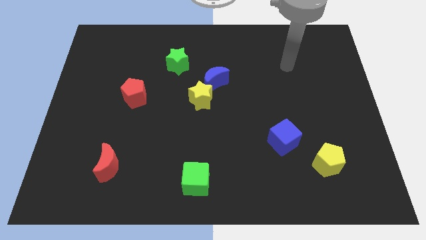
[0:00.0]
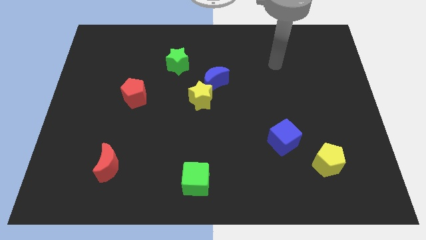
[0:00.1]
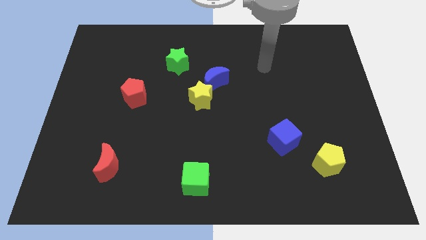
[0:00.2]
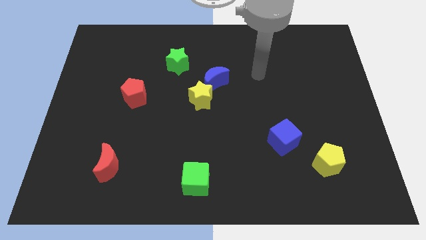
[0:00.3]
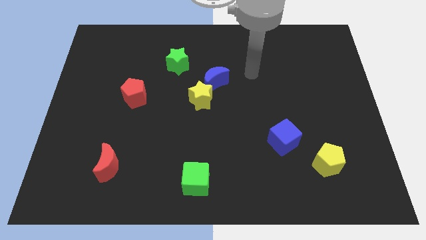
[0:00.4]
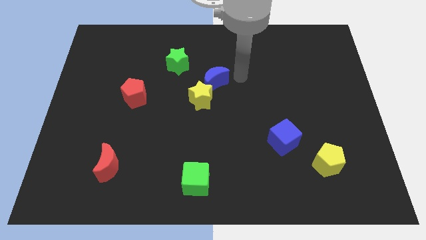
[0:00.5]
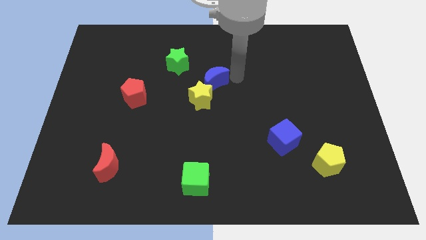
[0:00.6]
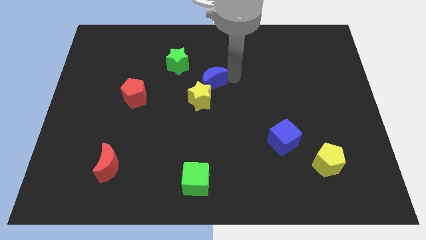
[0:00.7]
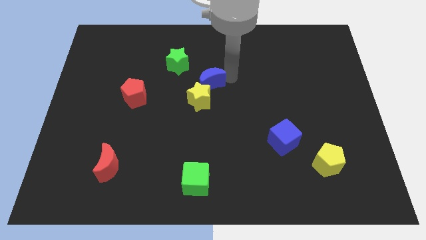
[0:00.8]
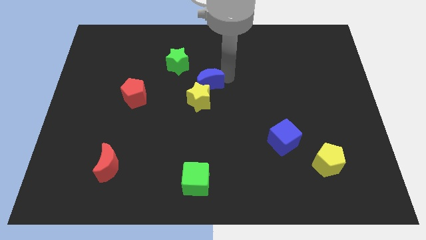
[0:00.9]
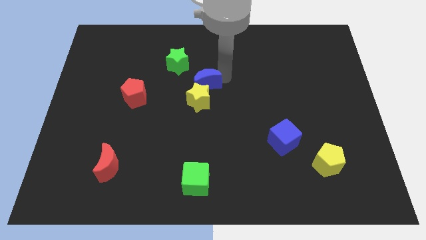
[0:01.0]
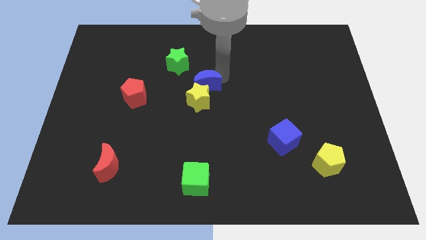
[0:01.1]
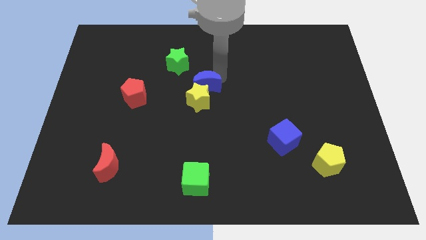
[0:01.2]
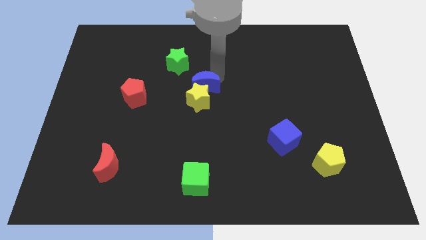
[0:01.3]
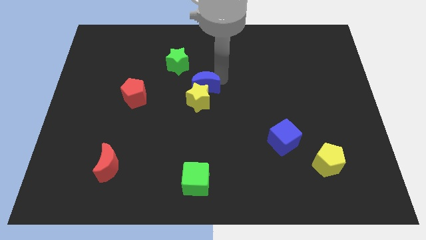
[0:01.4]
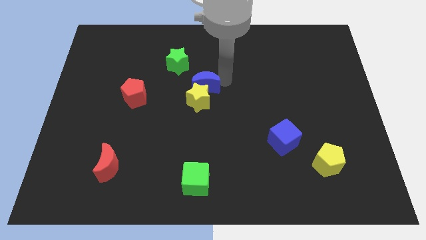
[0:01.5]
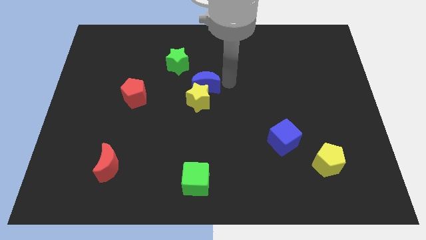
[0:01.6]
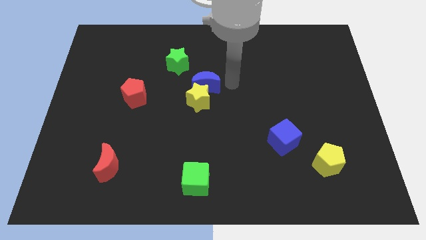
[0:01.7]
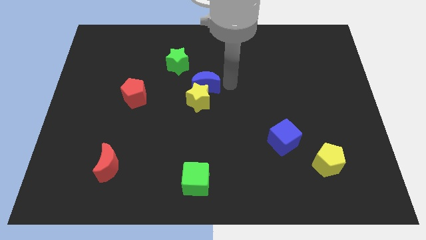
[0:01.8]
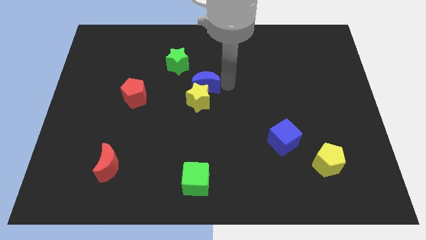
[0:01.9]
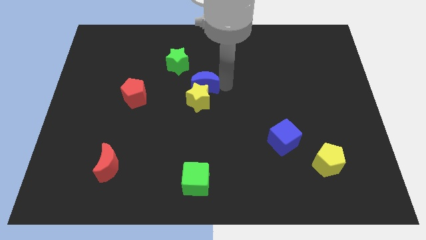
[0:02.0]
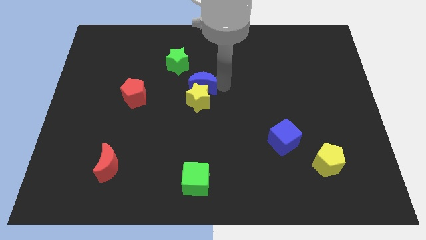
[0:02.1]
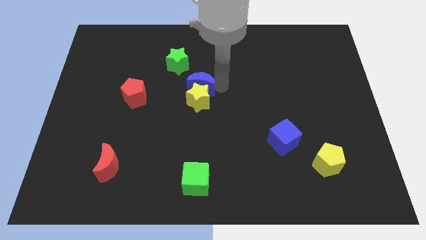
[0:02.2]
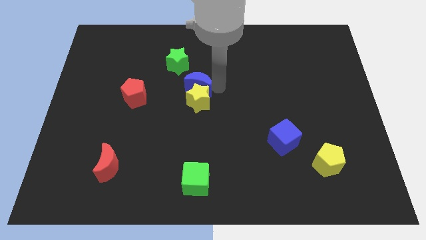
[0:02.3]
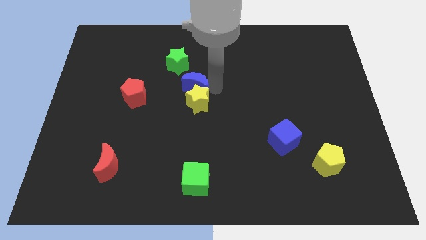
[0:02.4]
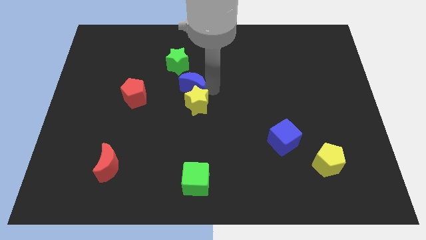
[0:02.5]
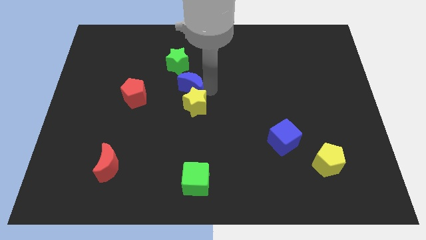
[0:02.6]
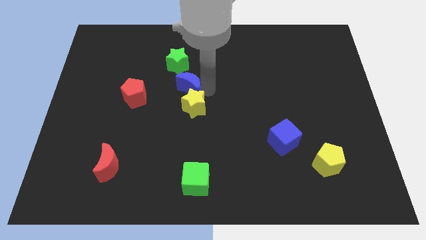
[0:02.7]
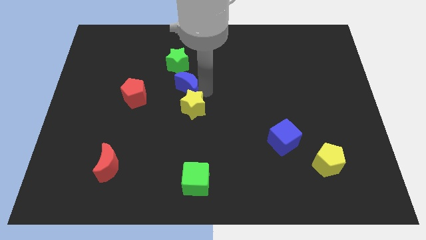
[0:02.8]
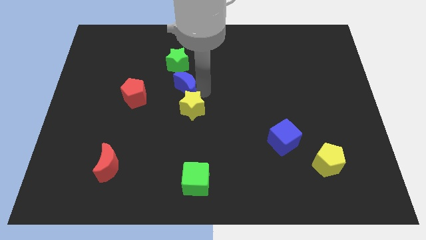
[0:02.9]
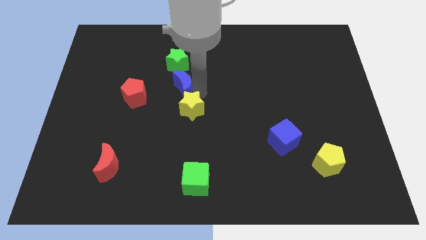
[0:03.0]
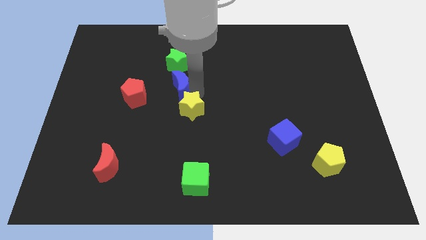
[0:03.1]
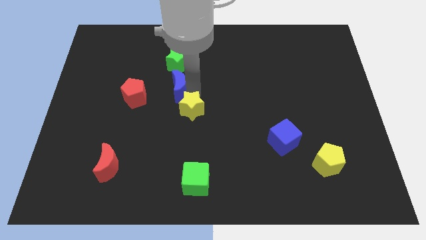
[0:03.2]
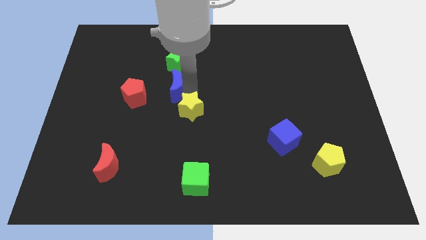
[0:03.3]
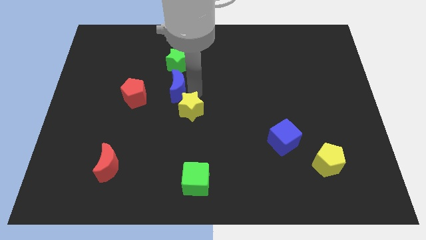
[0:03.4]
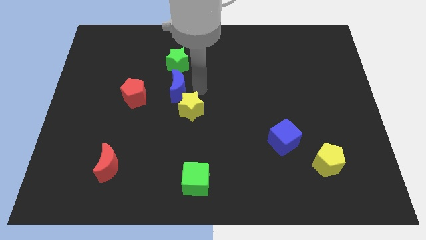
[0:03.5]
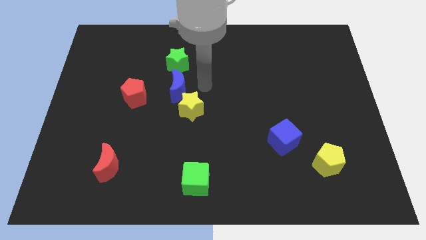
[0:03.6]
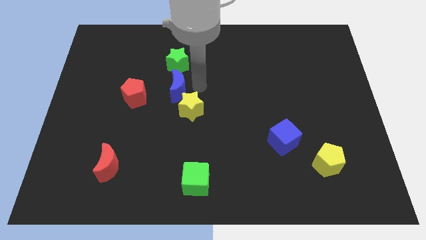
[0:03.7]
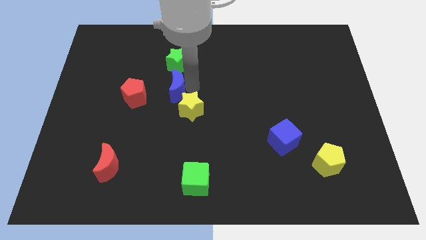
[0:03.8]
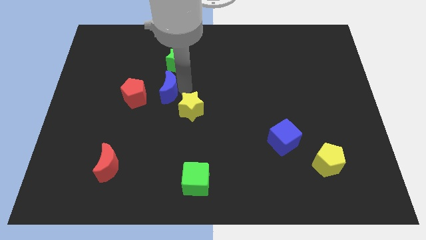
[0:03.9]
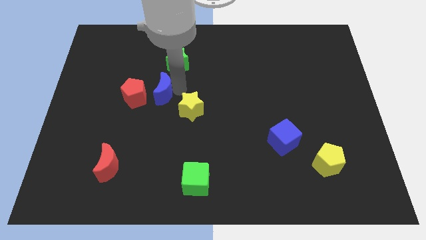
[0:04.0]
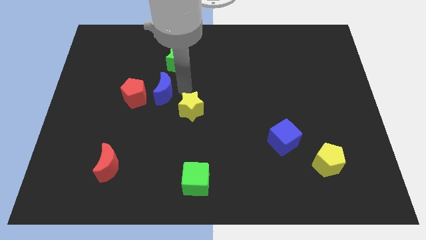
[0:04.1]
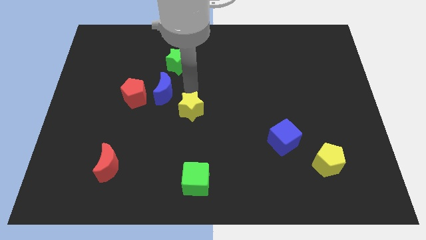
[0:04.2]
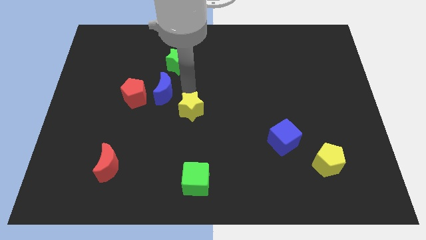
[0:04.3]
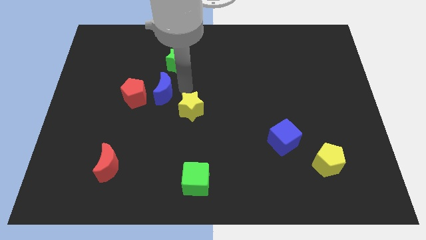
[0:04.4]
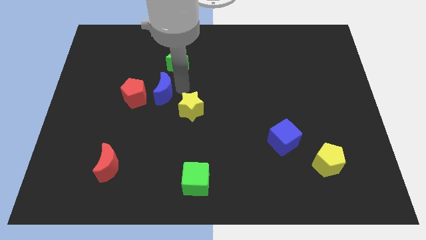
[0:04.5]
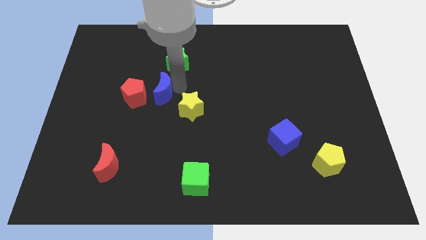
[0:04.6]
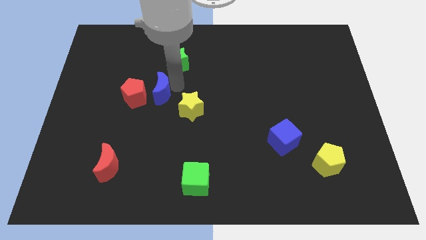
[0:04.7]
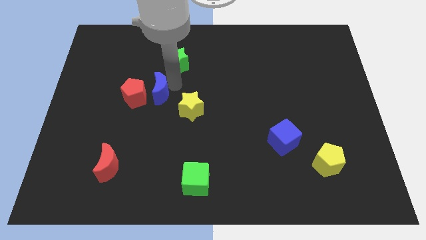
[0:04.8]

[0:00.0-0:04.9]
move the blue moon next to the red pentagon

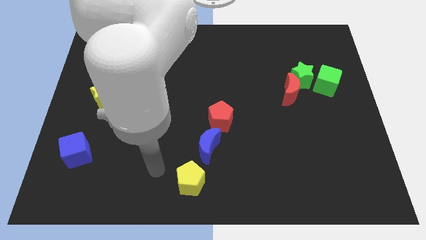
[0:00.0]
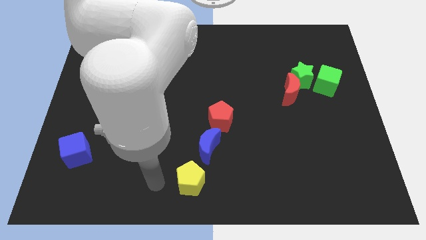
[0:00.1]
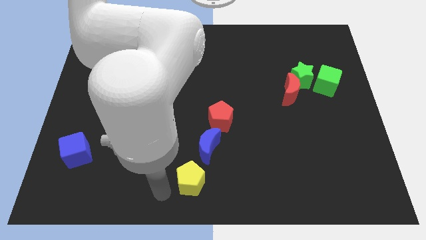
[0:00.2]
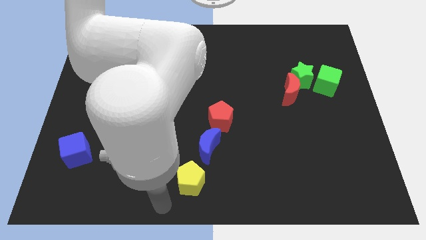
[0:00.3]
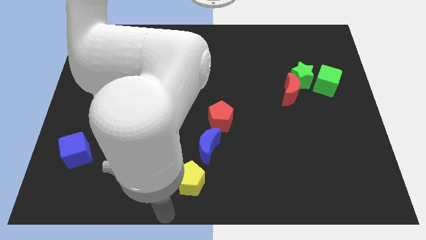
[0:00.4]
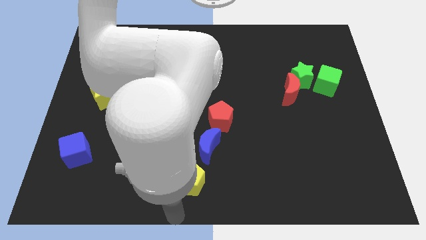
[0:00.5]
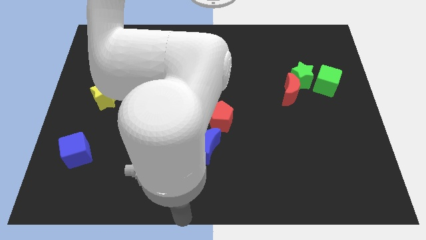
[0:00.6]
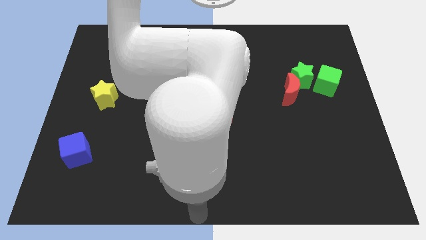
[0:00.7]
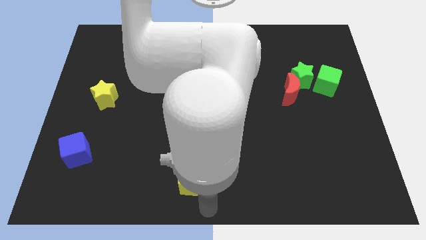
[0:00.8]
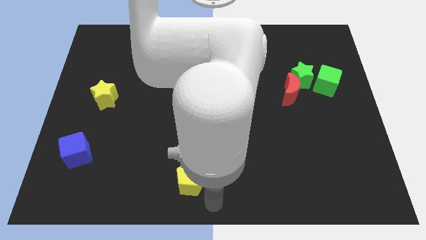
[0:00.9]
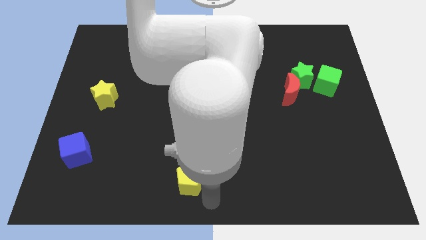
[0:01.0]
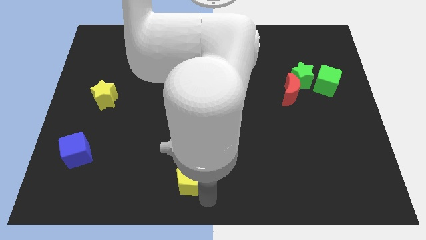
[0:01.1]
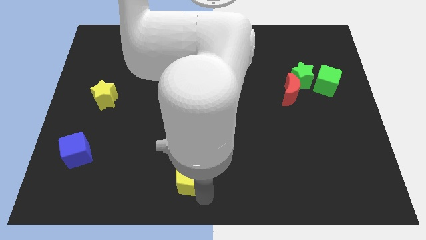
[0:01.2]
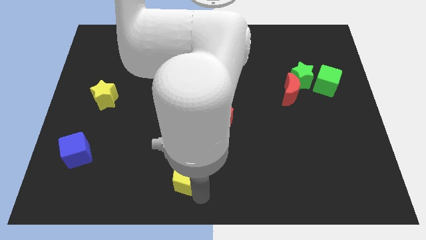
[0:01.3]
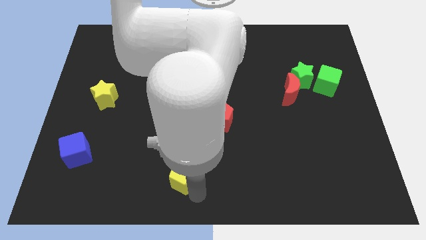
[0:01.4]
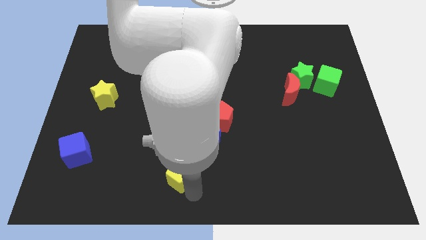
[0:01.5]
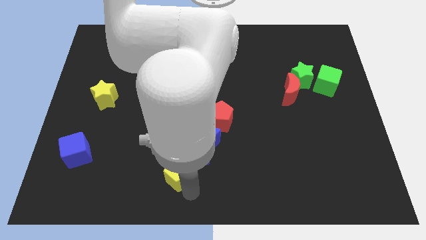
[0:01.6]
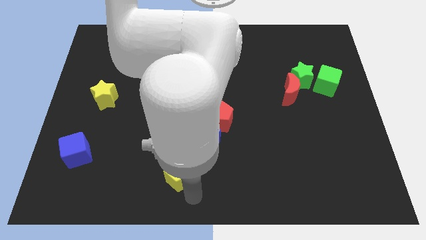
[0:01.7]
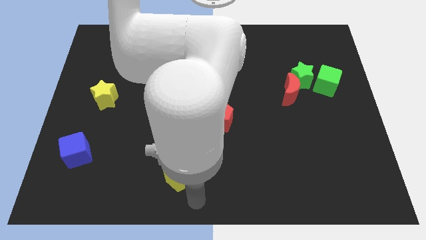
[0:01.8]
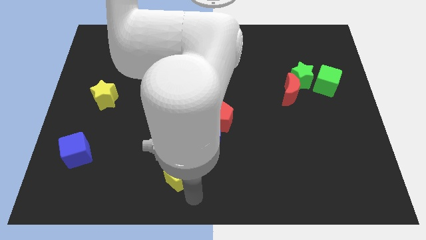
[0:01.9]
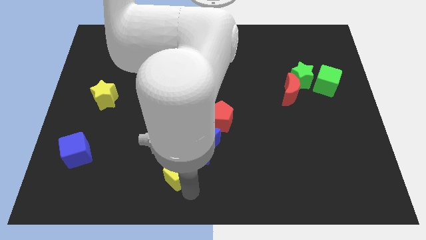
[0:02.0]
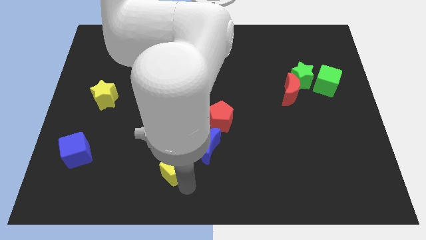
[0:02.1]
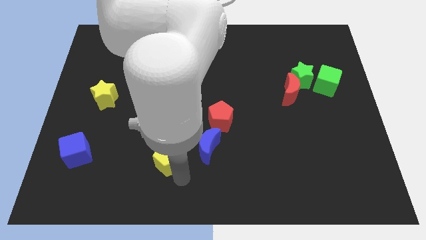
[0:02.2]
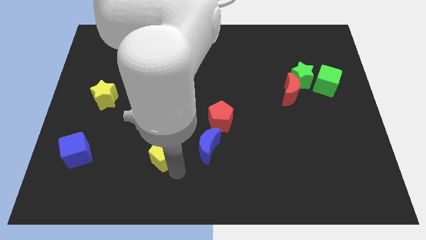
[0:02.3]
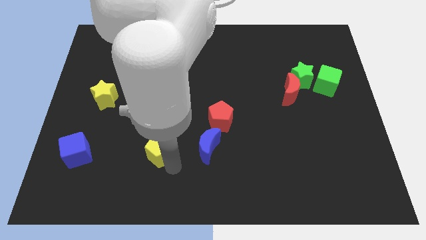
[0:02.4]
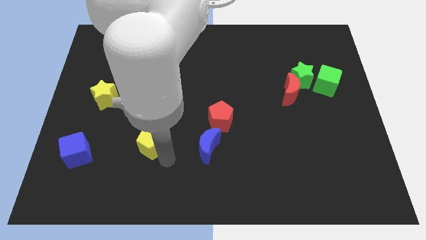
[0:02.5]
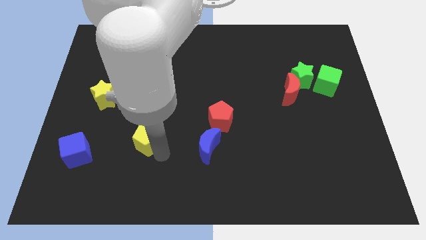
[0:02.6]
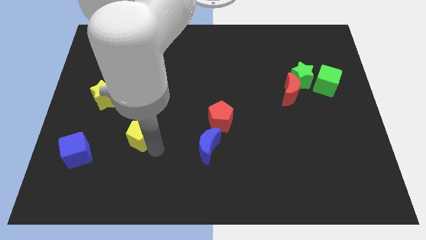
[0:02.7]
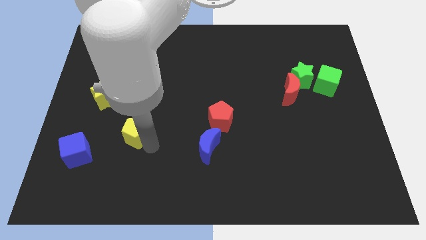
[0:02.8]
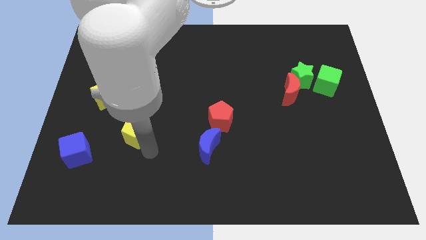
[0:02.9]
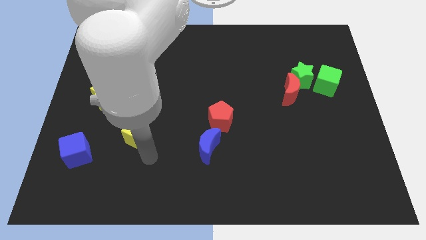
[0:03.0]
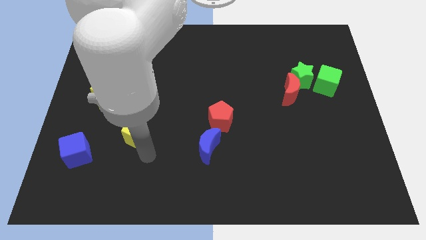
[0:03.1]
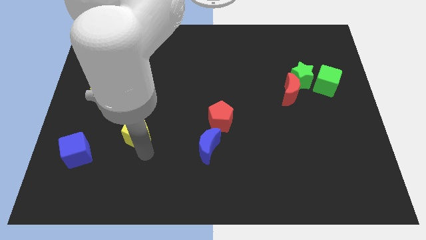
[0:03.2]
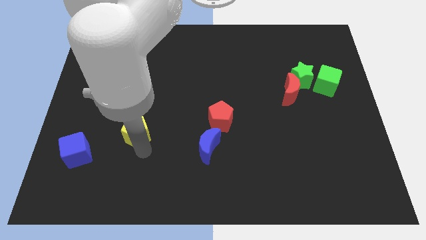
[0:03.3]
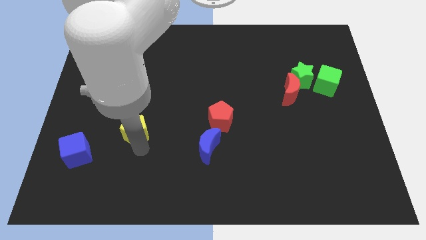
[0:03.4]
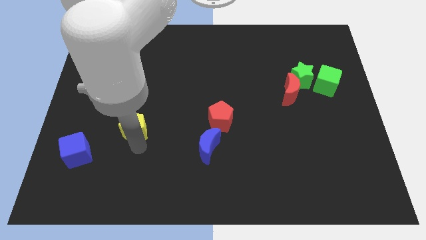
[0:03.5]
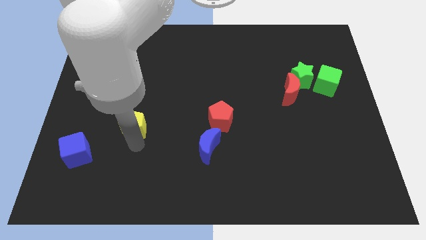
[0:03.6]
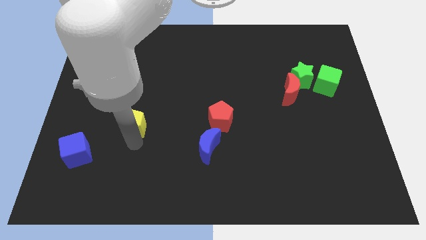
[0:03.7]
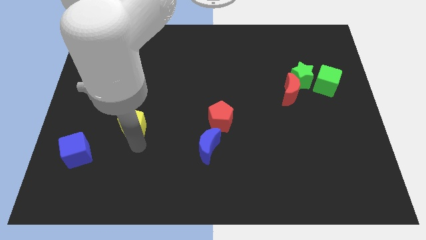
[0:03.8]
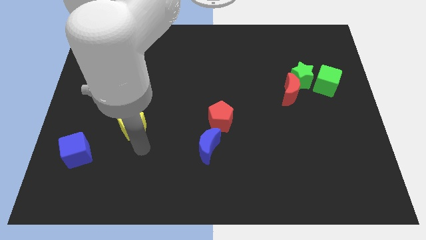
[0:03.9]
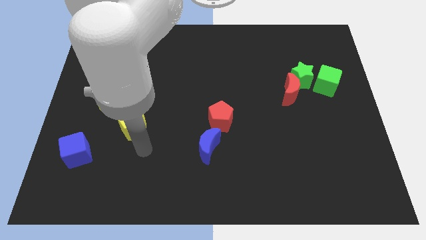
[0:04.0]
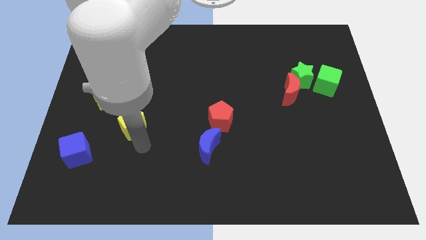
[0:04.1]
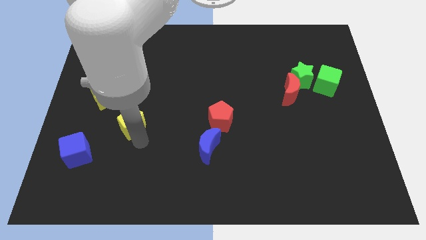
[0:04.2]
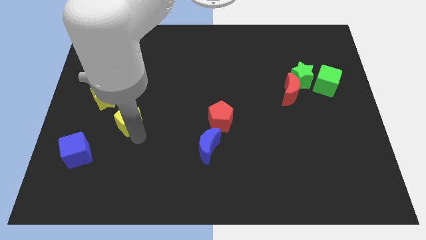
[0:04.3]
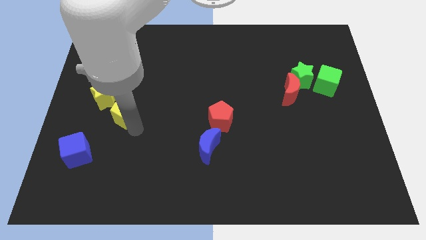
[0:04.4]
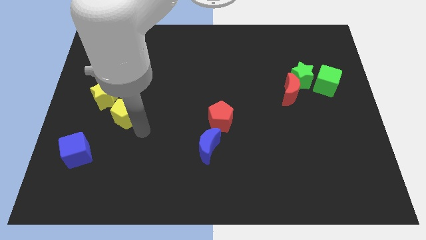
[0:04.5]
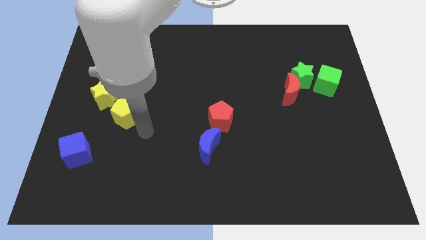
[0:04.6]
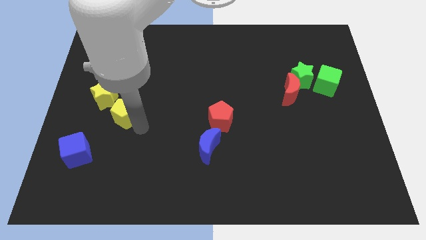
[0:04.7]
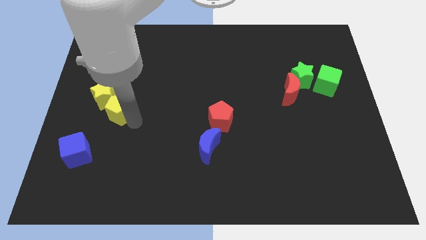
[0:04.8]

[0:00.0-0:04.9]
push the yellow pentagon close to the yellow star
